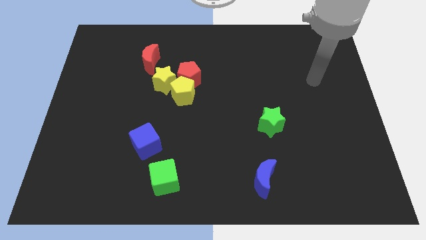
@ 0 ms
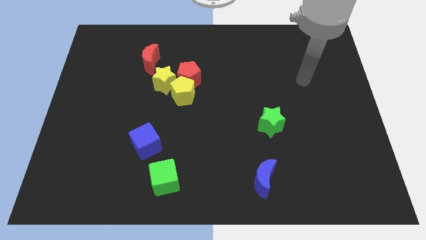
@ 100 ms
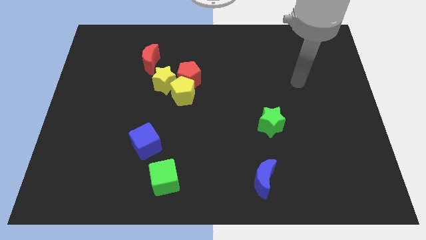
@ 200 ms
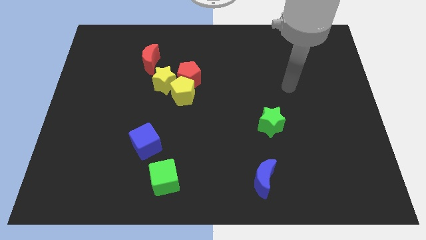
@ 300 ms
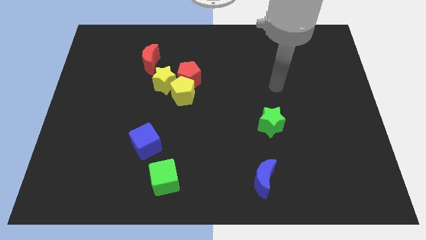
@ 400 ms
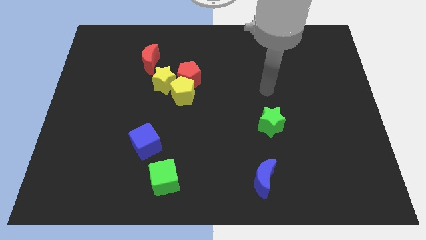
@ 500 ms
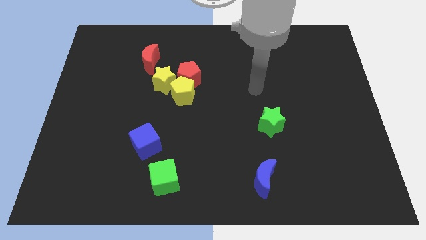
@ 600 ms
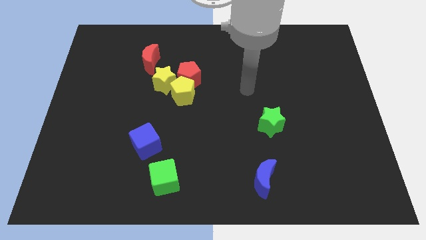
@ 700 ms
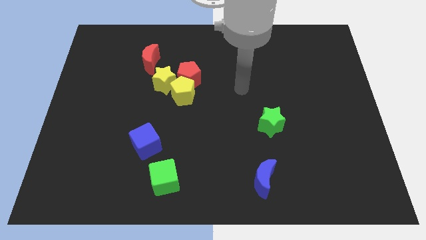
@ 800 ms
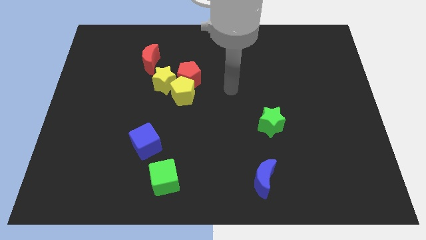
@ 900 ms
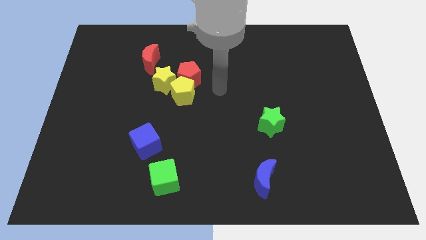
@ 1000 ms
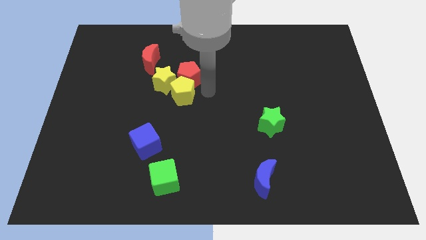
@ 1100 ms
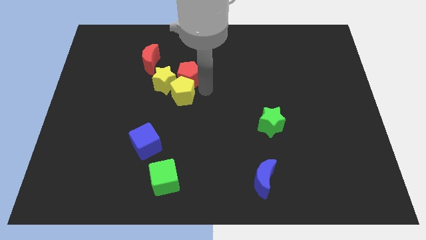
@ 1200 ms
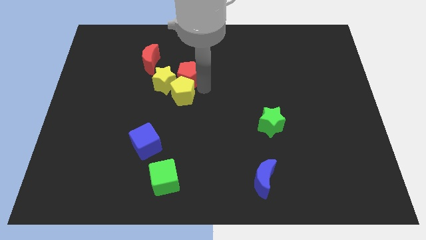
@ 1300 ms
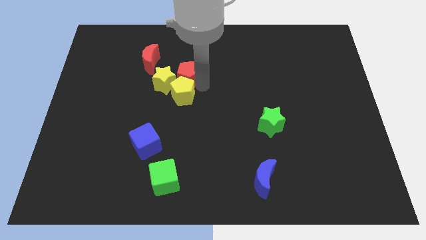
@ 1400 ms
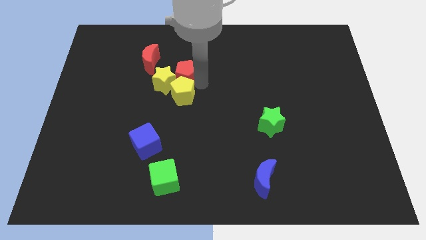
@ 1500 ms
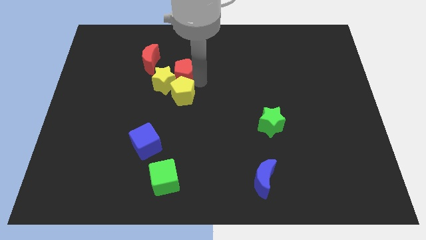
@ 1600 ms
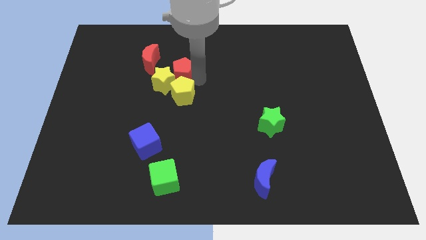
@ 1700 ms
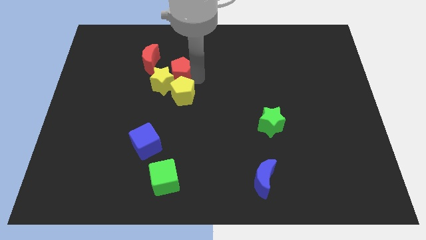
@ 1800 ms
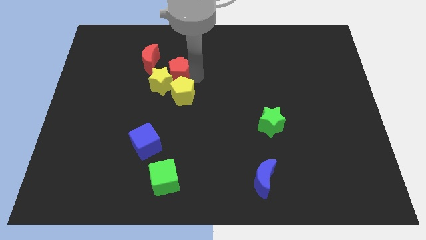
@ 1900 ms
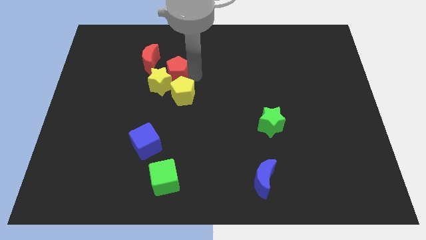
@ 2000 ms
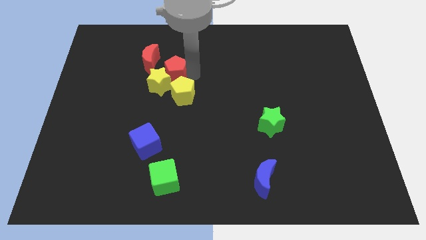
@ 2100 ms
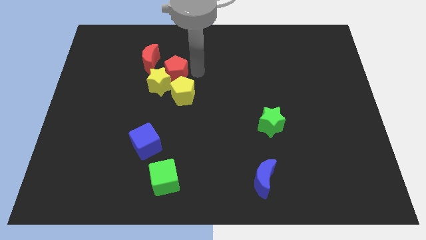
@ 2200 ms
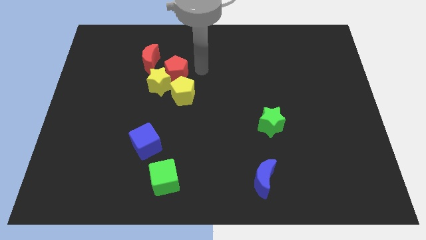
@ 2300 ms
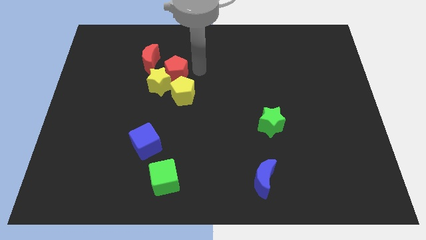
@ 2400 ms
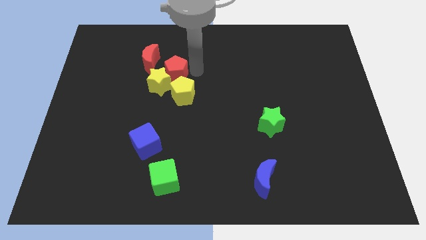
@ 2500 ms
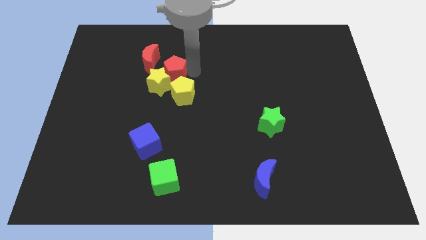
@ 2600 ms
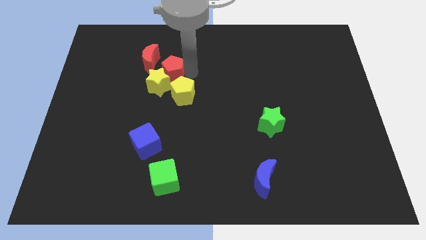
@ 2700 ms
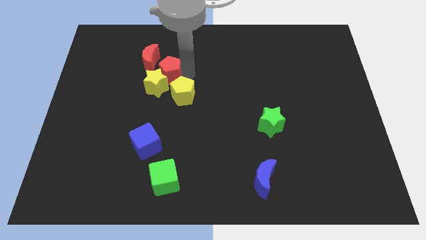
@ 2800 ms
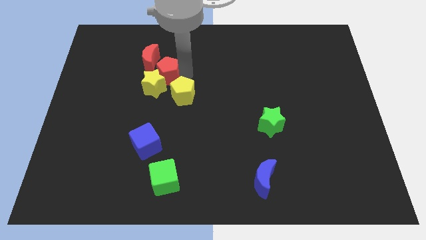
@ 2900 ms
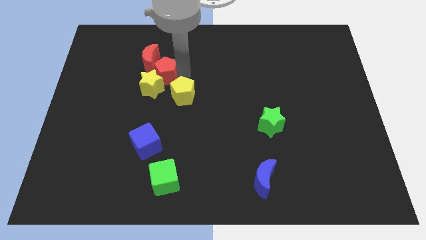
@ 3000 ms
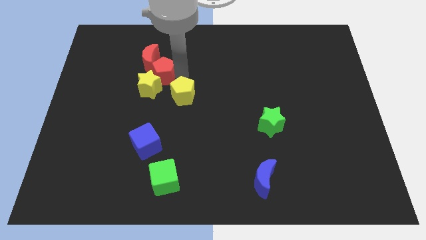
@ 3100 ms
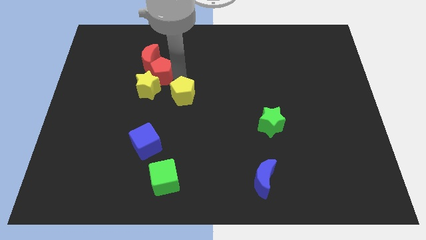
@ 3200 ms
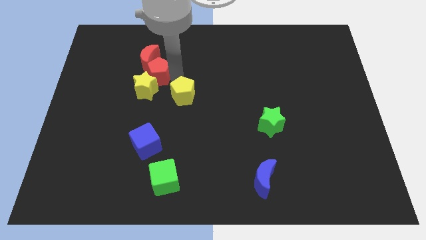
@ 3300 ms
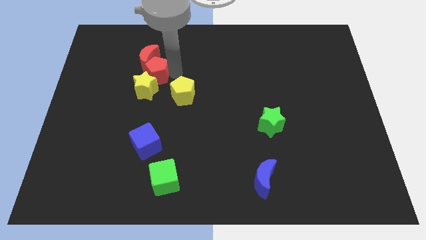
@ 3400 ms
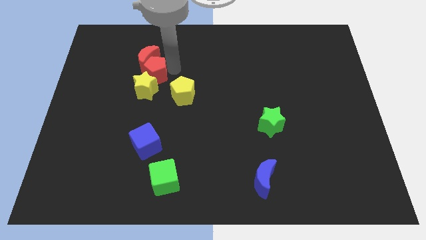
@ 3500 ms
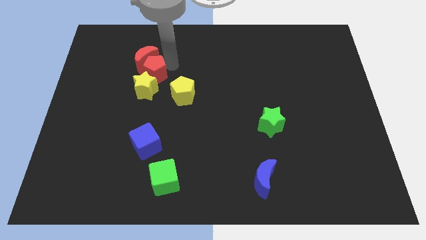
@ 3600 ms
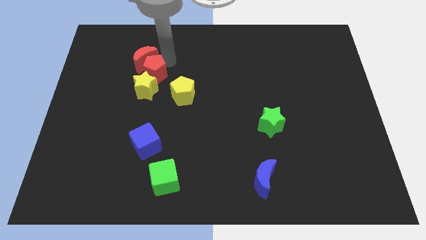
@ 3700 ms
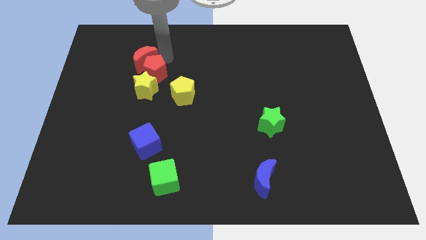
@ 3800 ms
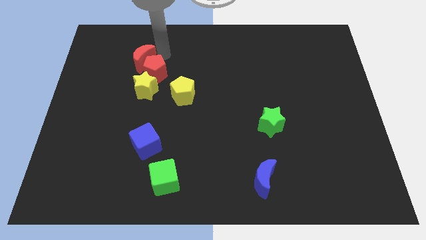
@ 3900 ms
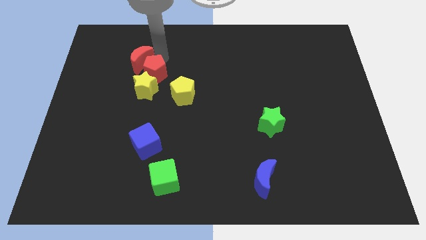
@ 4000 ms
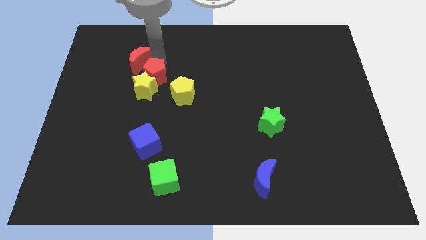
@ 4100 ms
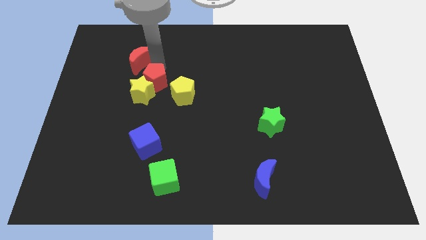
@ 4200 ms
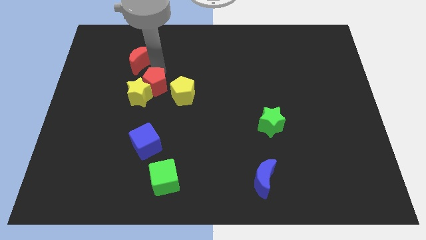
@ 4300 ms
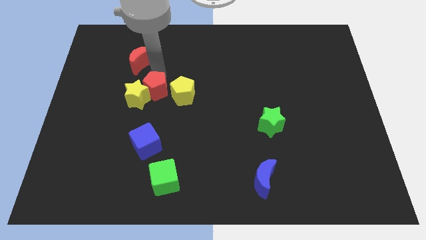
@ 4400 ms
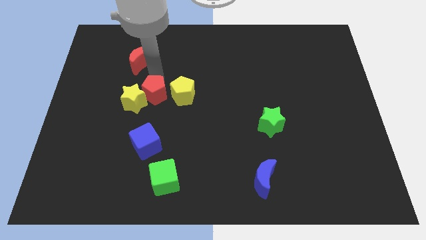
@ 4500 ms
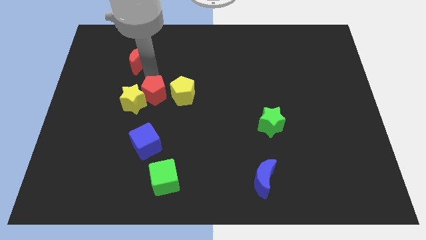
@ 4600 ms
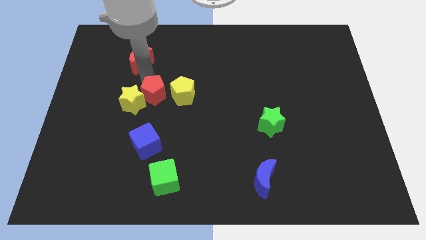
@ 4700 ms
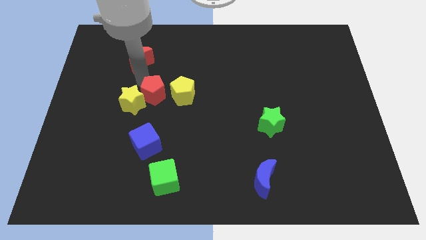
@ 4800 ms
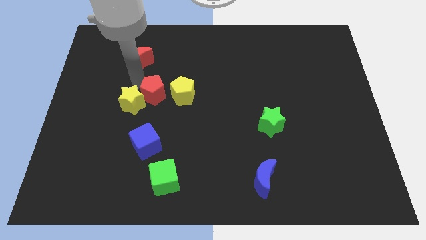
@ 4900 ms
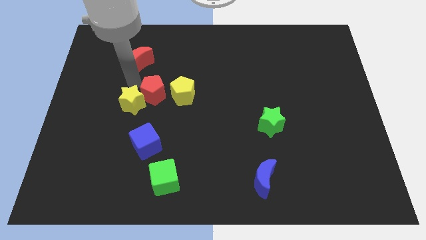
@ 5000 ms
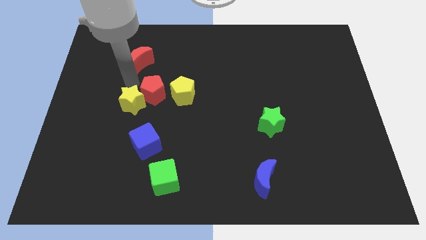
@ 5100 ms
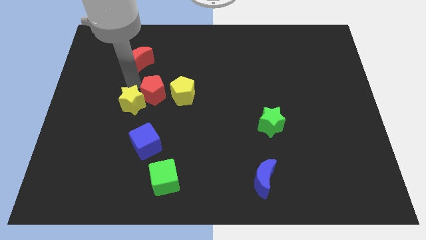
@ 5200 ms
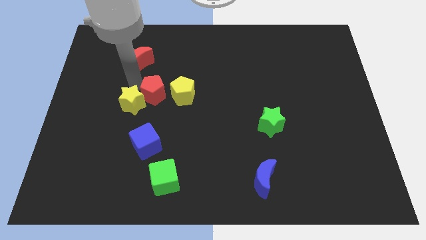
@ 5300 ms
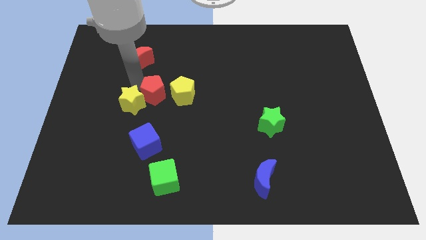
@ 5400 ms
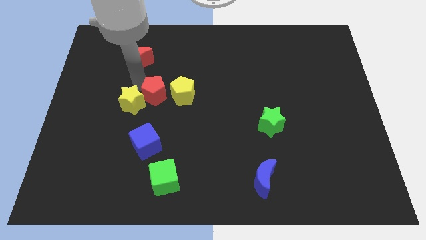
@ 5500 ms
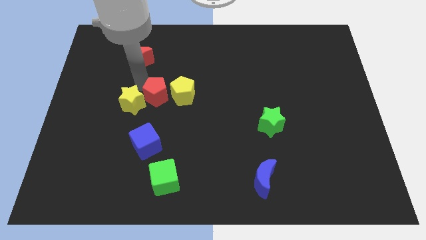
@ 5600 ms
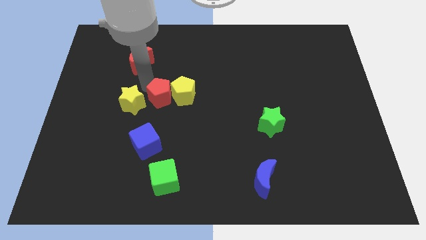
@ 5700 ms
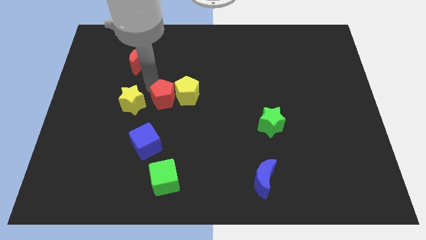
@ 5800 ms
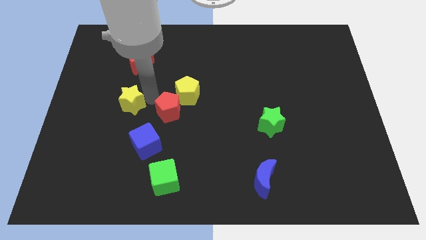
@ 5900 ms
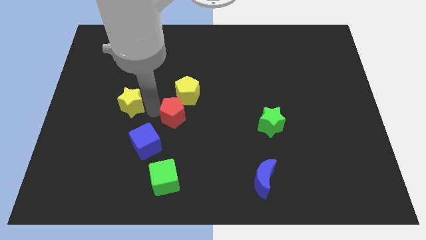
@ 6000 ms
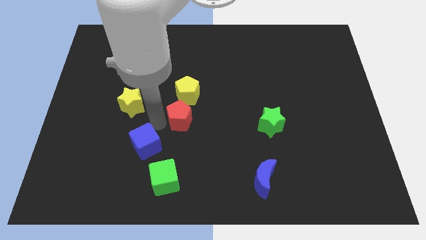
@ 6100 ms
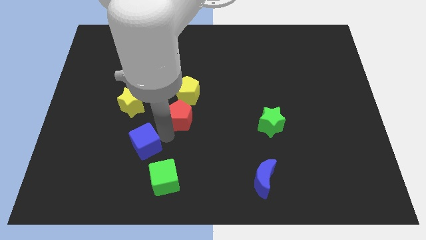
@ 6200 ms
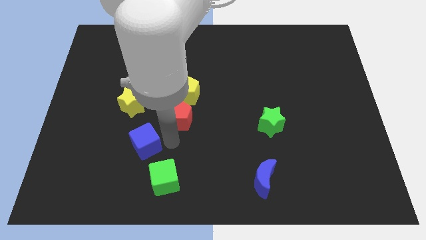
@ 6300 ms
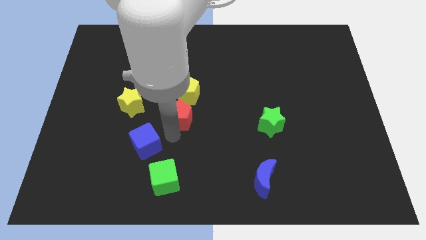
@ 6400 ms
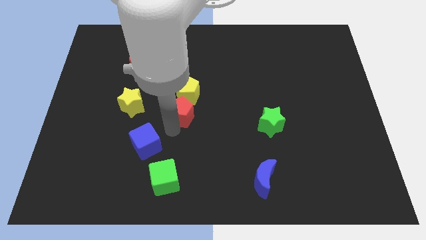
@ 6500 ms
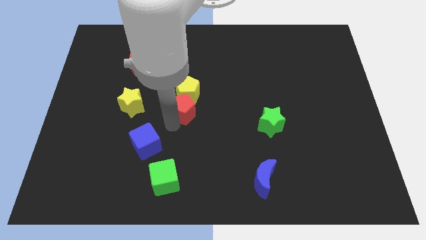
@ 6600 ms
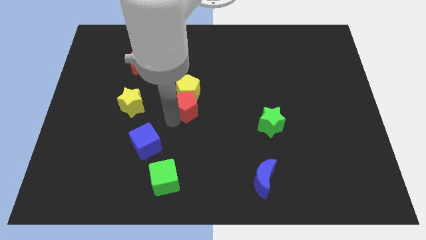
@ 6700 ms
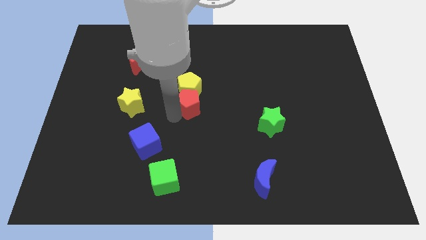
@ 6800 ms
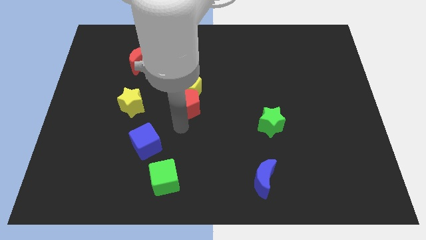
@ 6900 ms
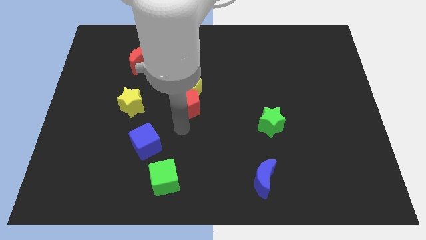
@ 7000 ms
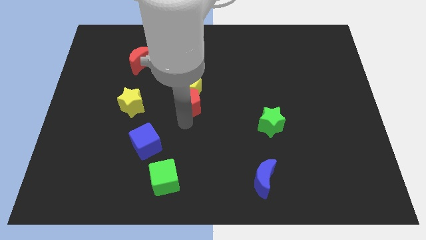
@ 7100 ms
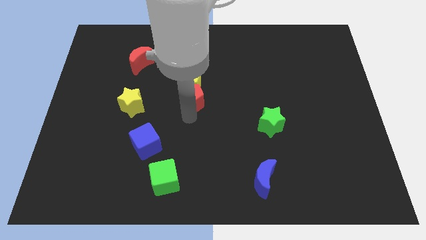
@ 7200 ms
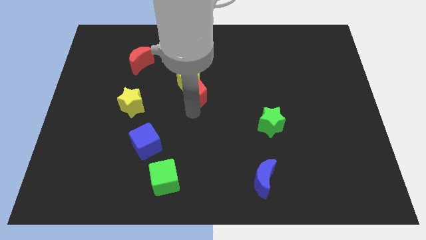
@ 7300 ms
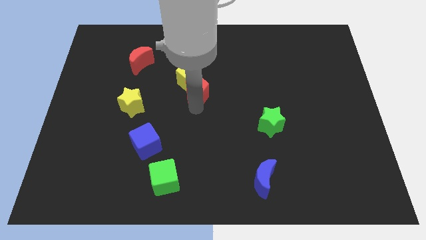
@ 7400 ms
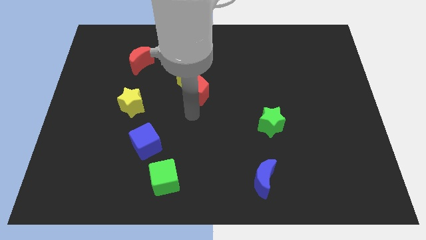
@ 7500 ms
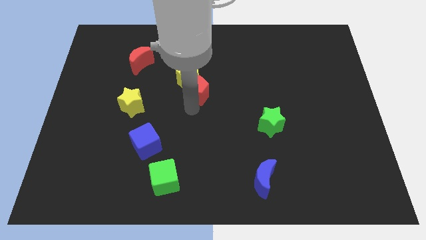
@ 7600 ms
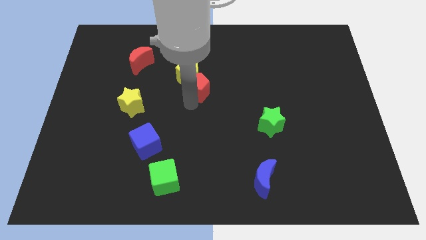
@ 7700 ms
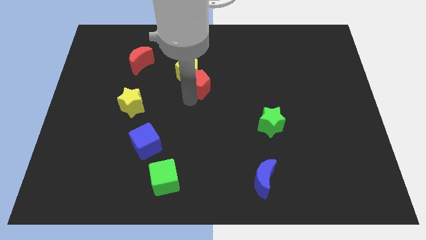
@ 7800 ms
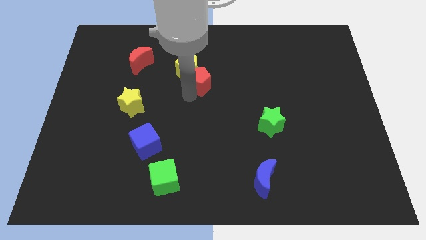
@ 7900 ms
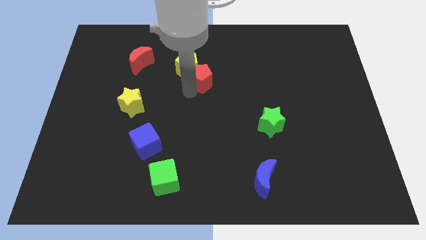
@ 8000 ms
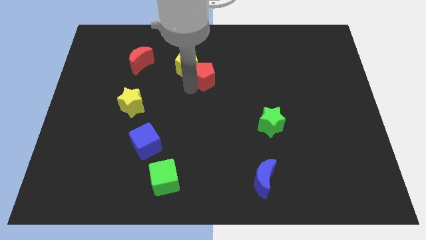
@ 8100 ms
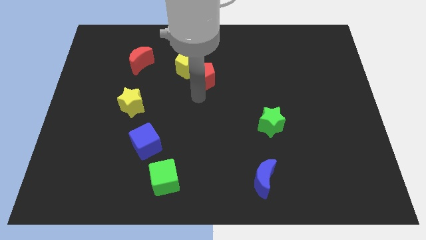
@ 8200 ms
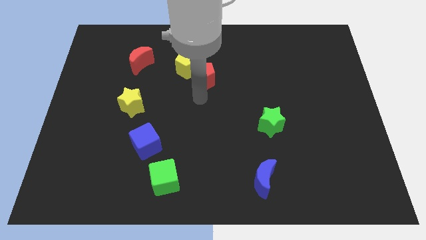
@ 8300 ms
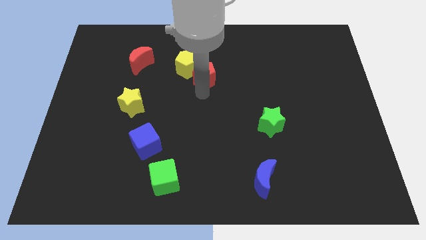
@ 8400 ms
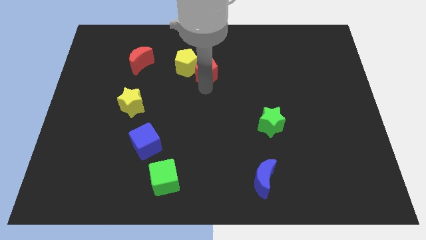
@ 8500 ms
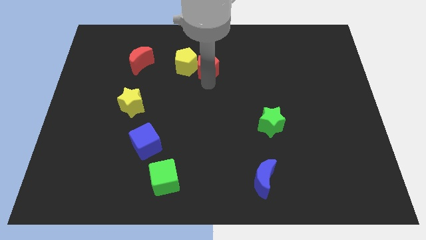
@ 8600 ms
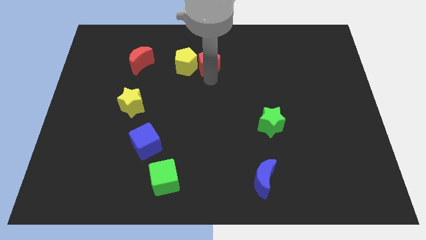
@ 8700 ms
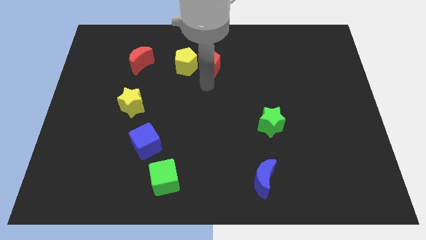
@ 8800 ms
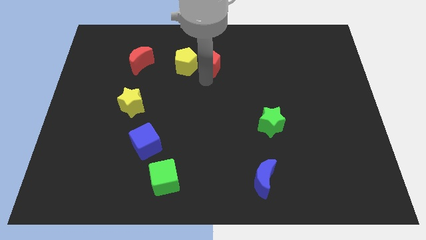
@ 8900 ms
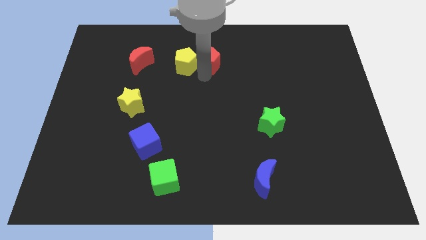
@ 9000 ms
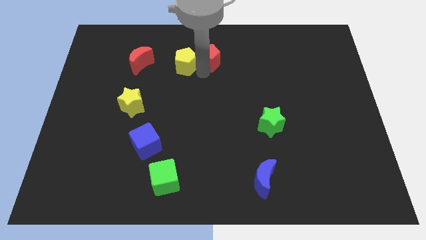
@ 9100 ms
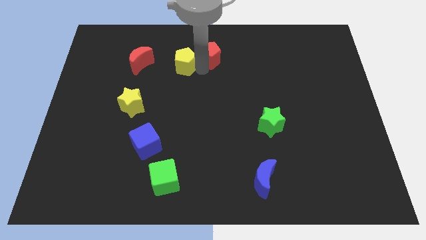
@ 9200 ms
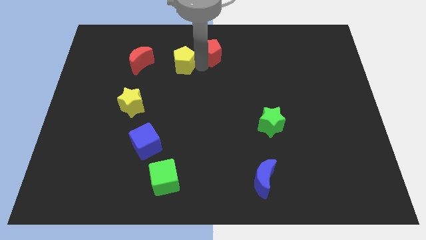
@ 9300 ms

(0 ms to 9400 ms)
move the red pentagon to the top
